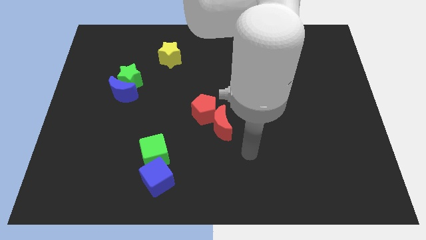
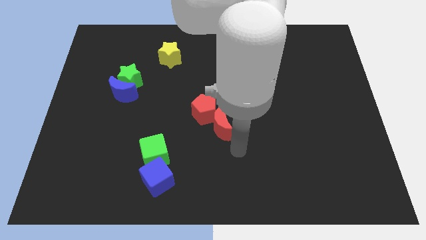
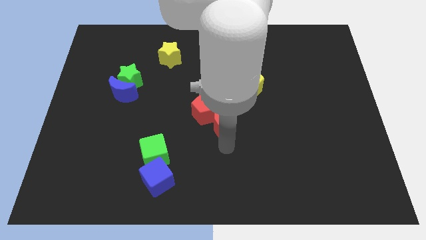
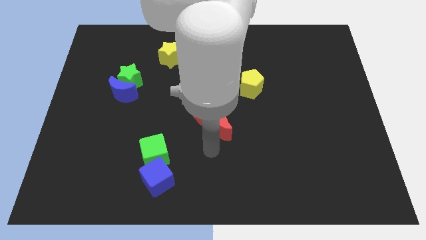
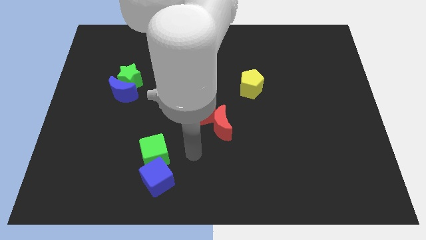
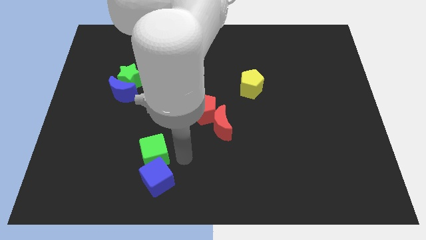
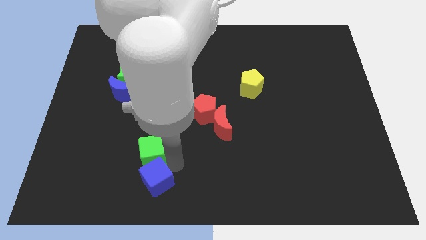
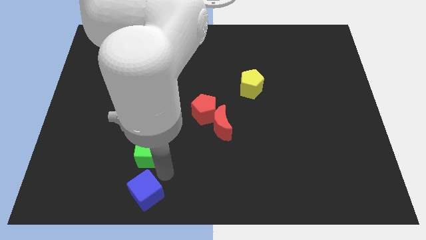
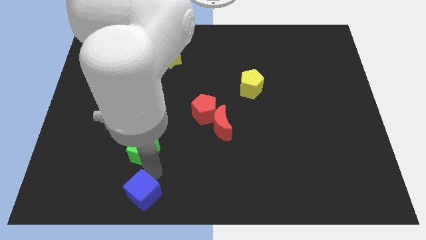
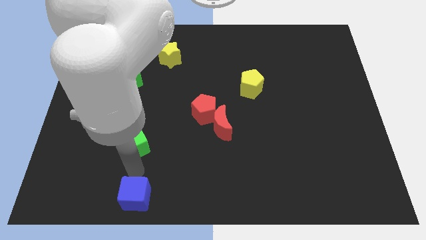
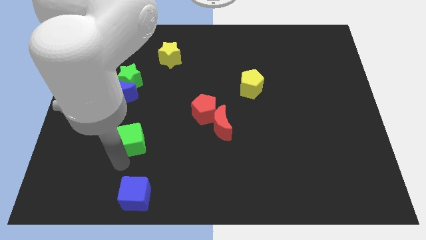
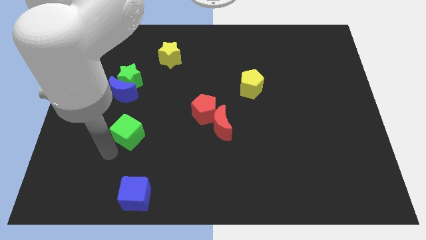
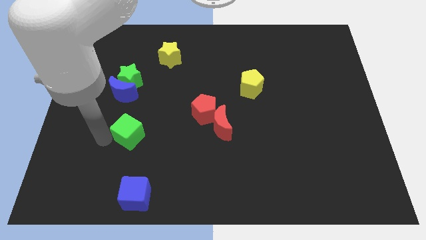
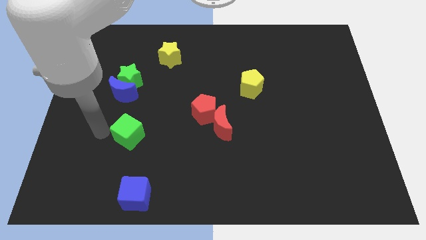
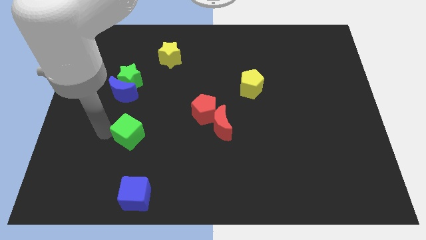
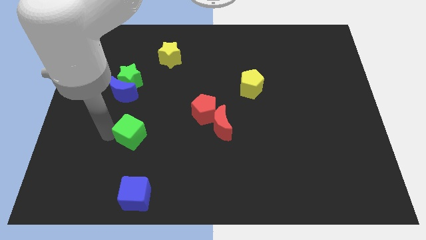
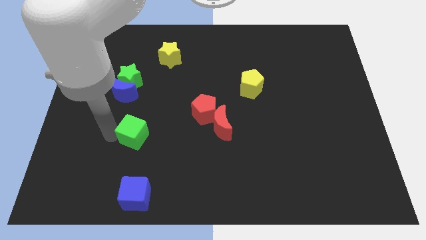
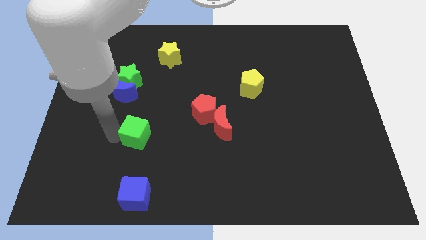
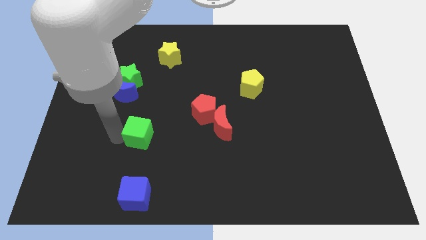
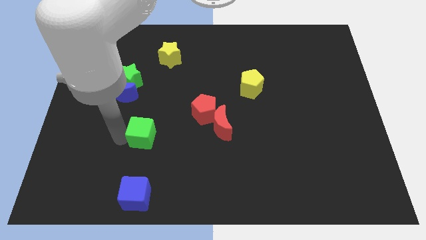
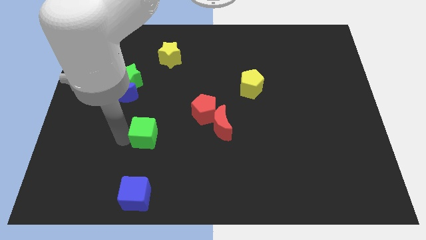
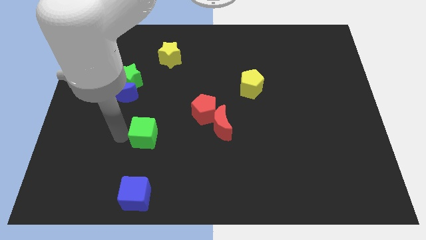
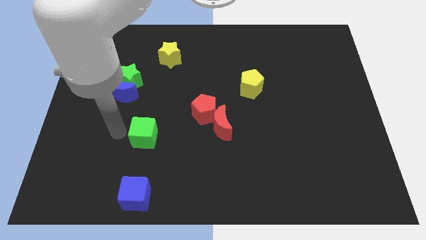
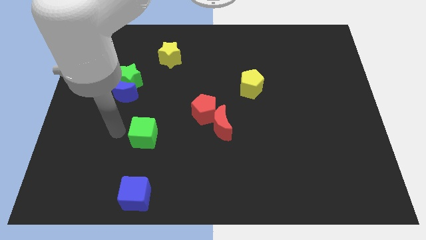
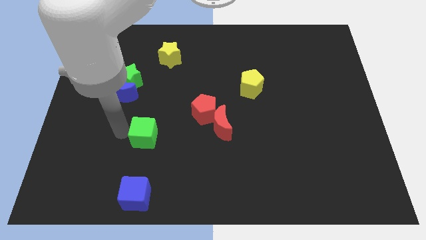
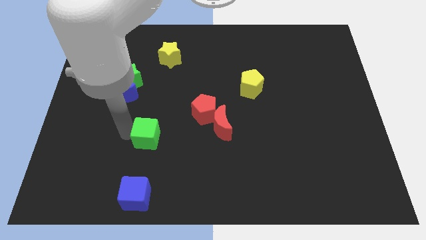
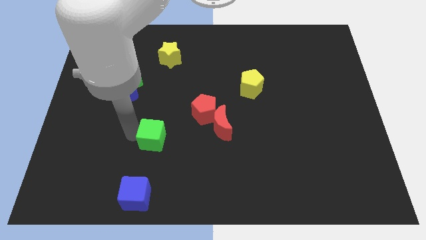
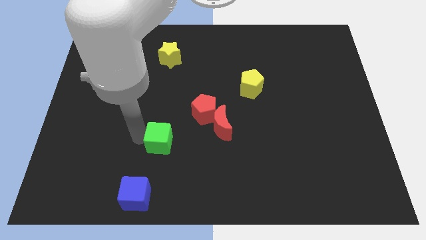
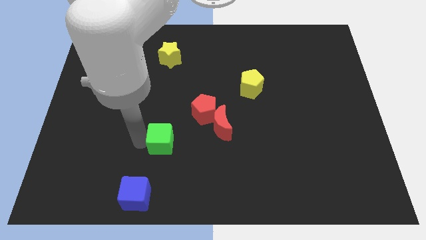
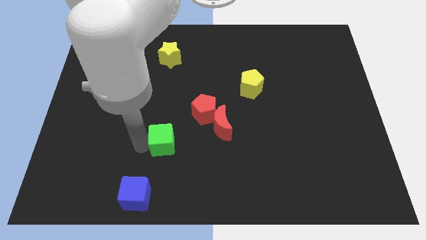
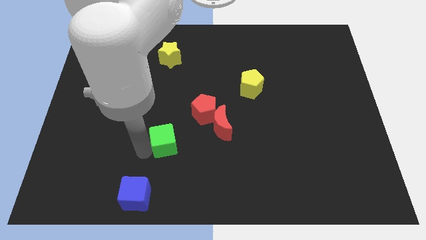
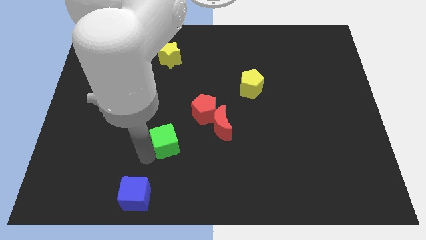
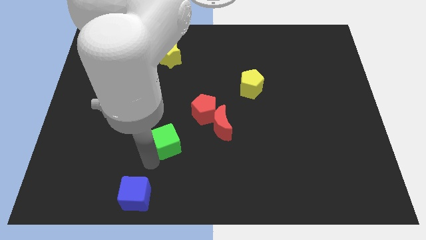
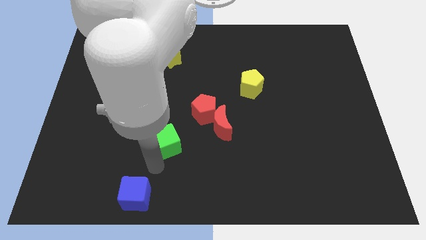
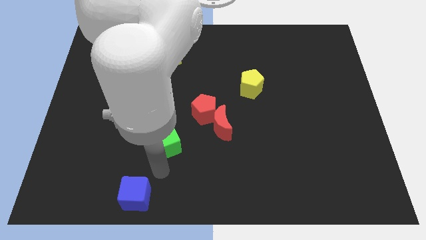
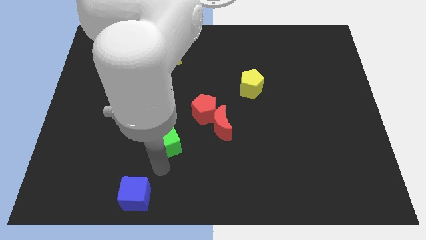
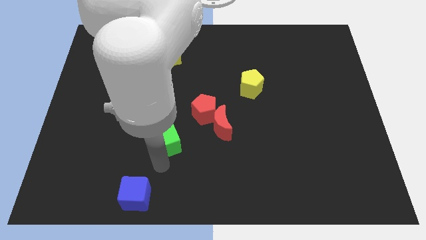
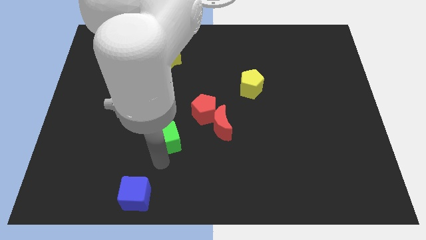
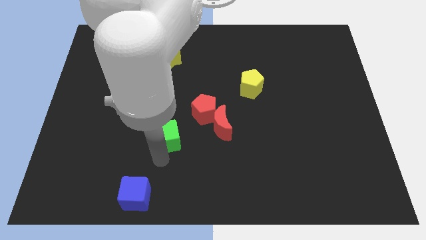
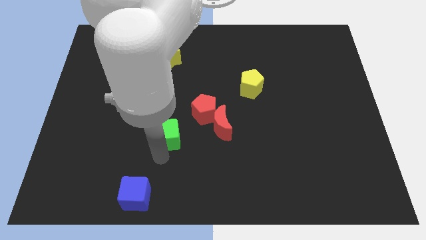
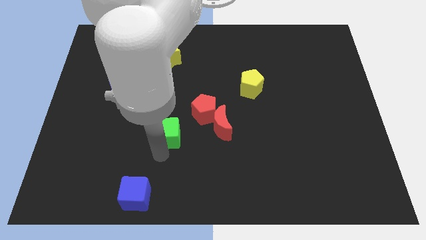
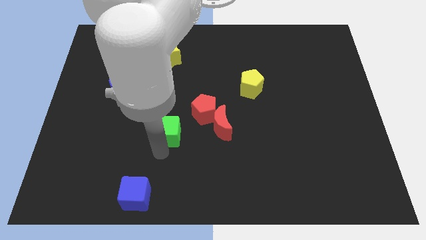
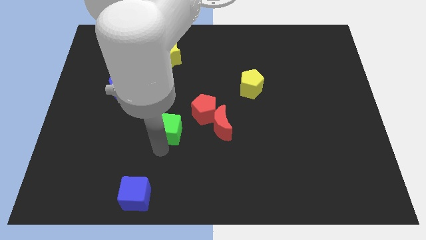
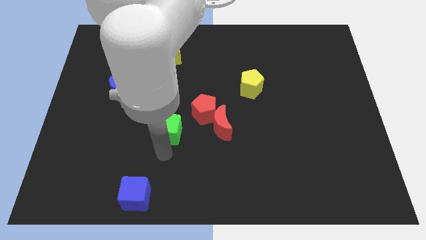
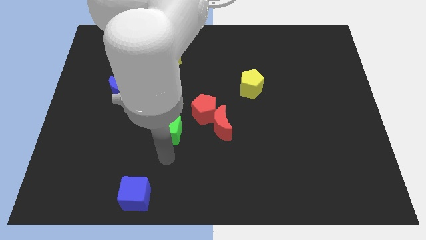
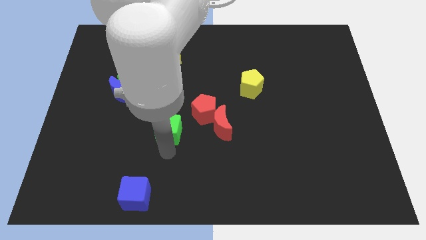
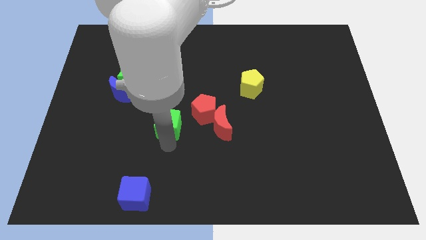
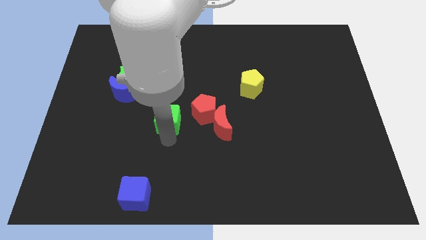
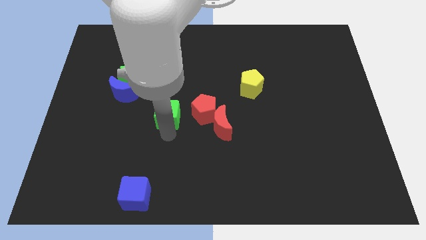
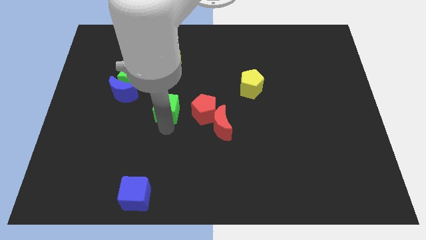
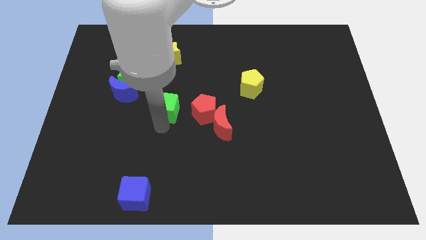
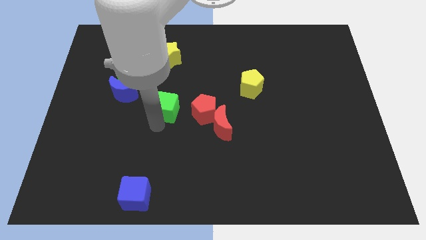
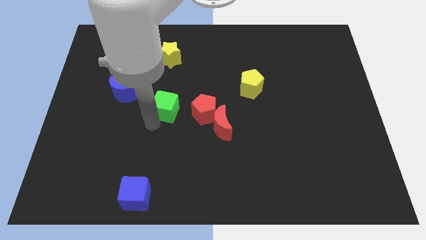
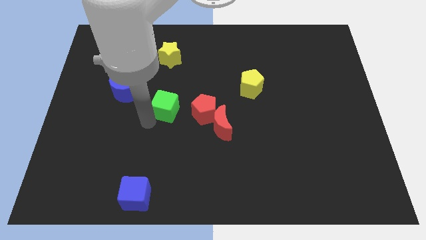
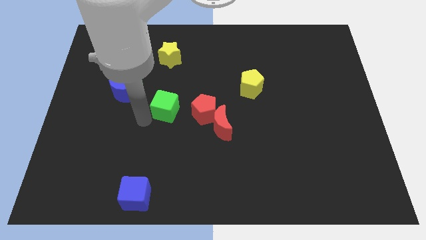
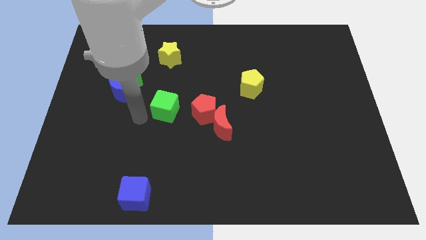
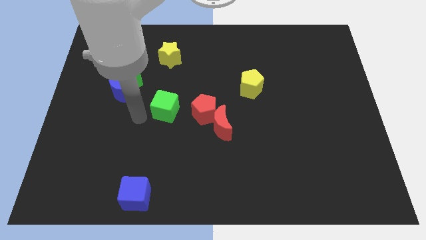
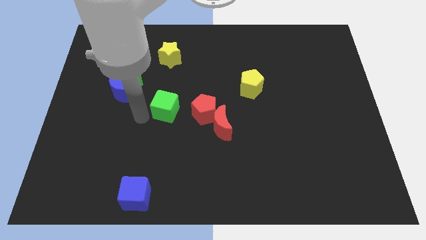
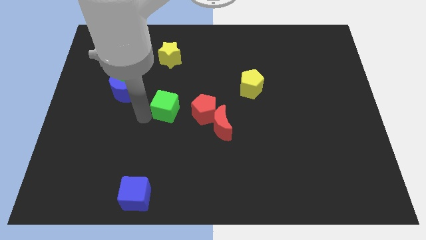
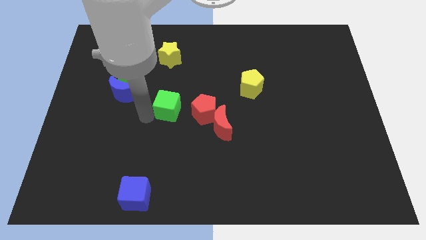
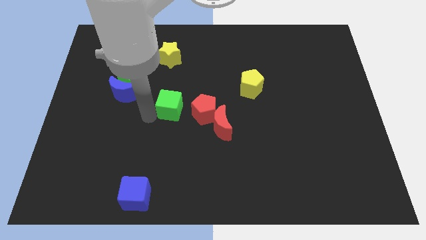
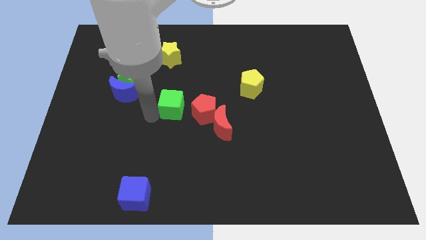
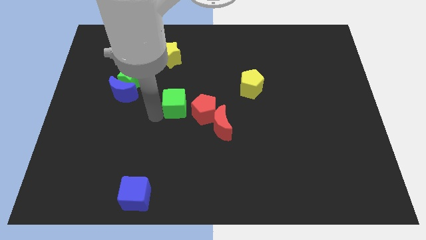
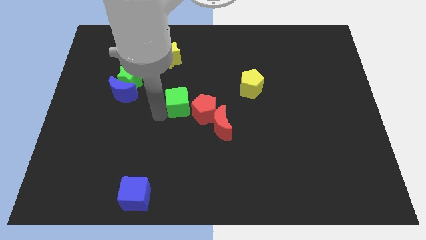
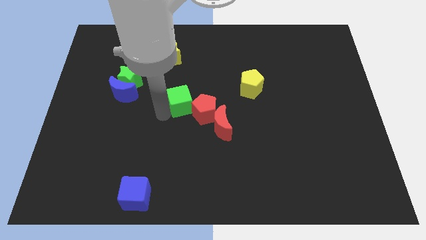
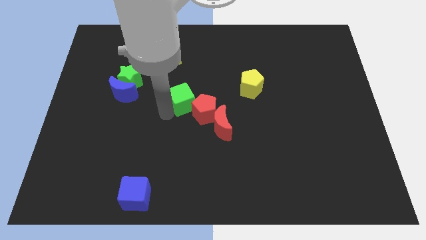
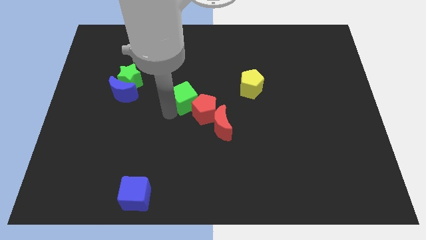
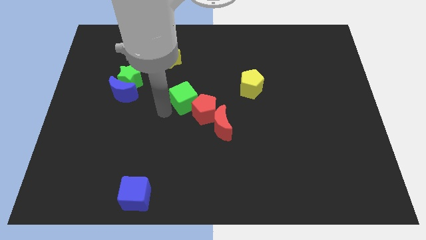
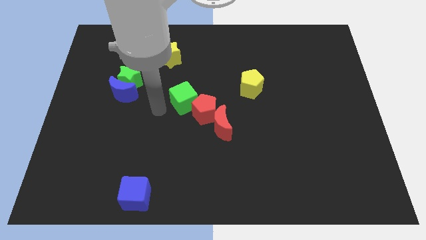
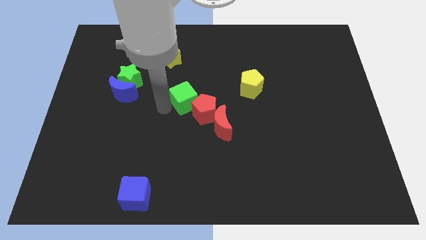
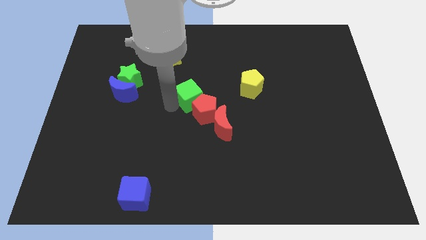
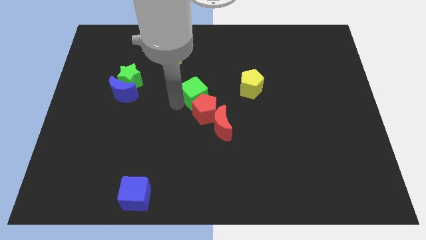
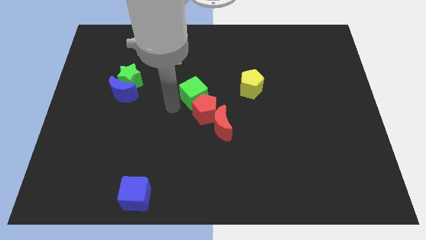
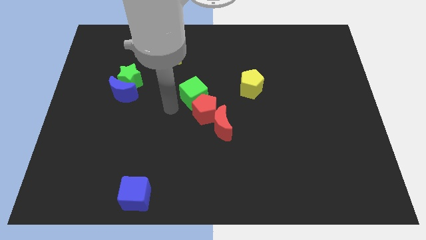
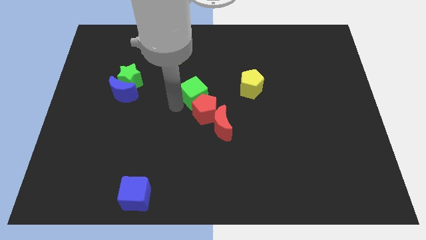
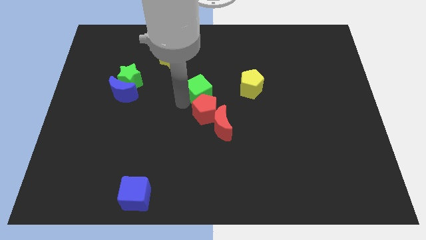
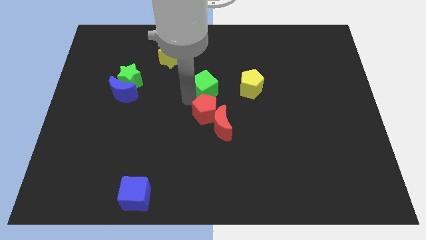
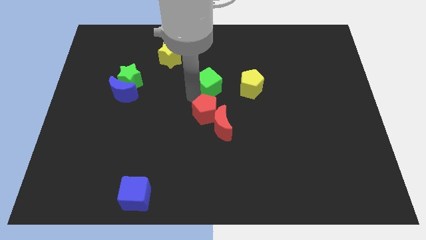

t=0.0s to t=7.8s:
slide the green cube upwards and right

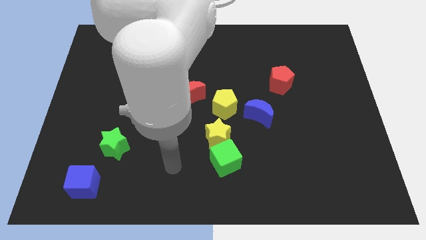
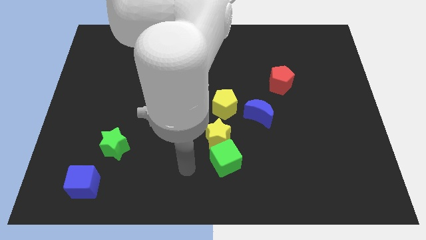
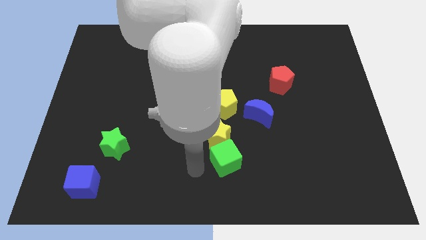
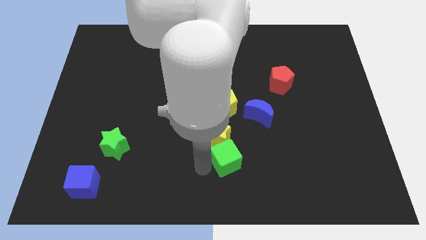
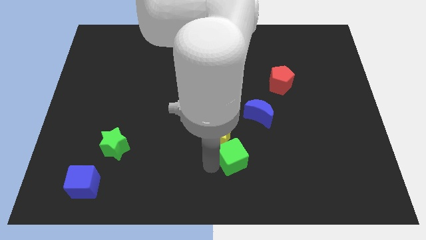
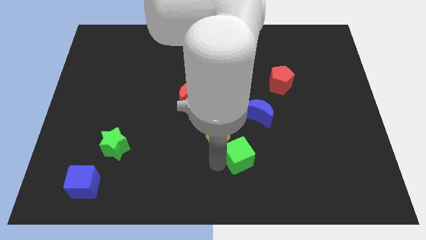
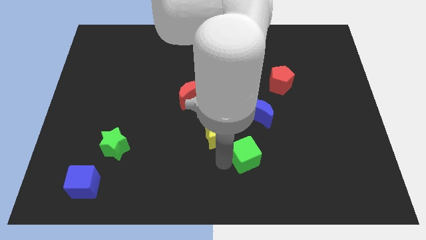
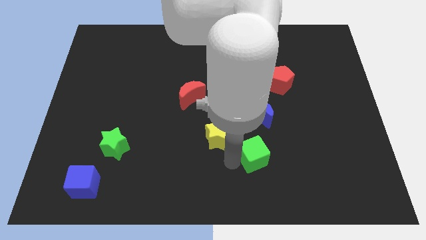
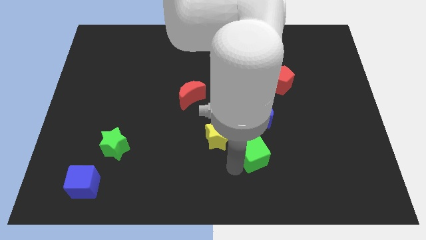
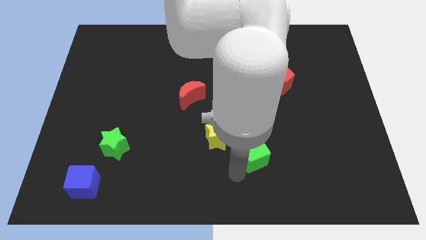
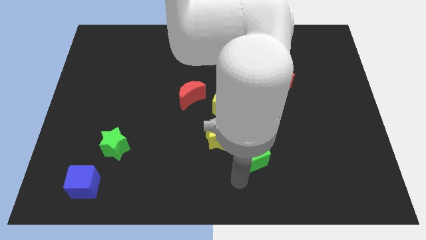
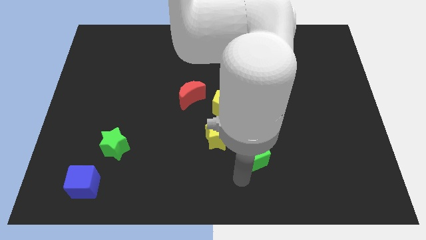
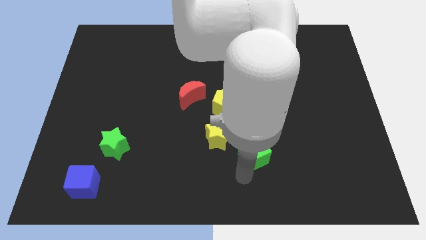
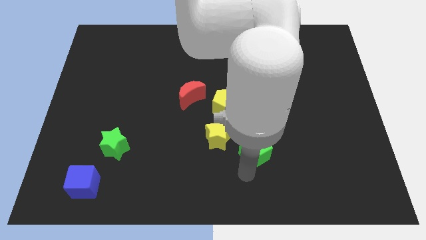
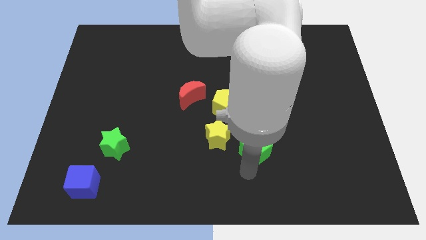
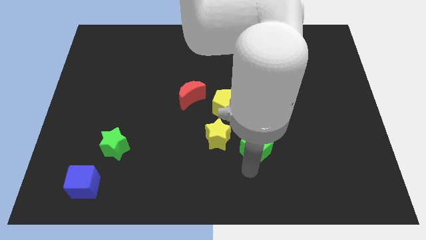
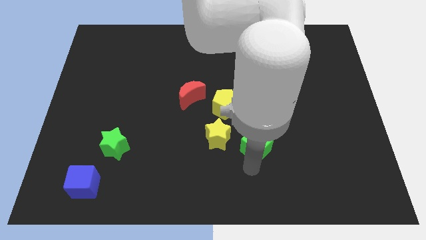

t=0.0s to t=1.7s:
move the green cube up and then right slightly
